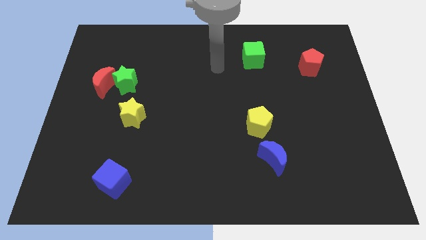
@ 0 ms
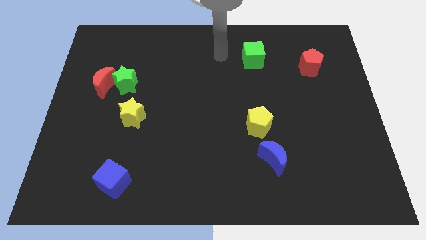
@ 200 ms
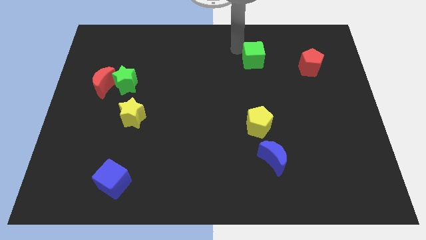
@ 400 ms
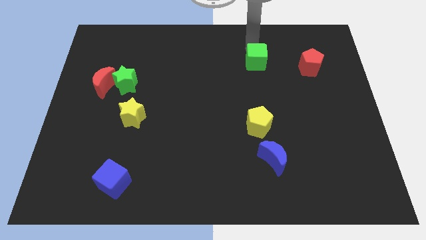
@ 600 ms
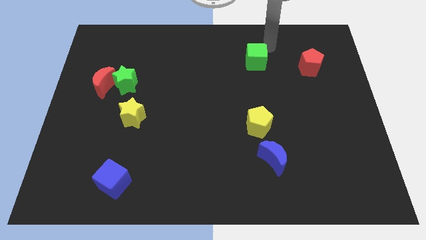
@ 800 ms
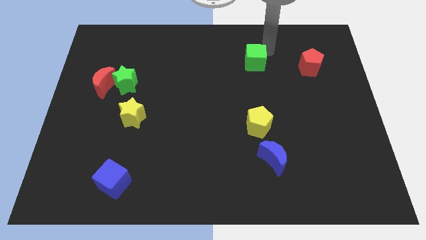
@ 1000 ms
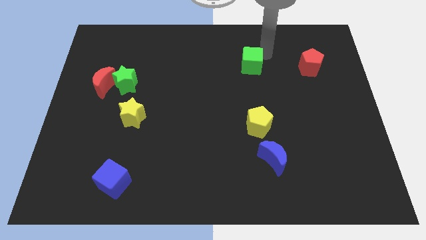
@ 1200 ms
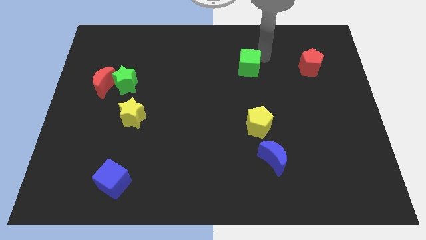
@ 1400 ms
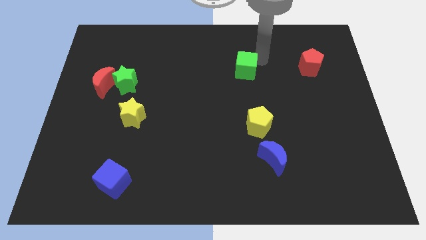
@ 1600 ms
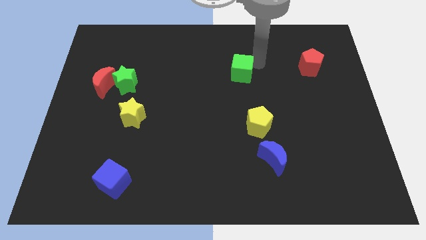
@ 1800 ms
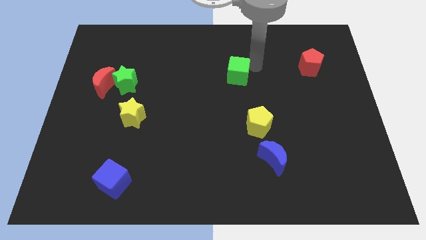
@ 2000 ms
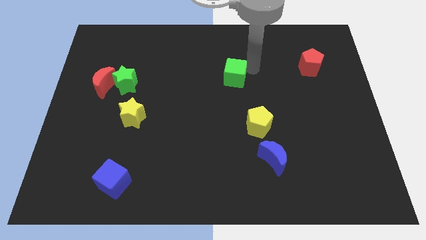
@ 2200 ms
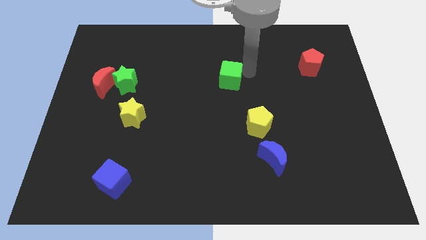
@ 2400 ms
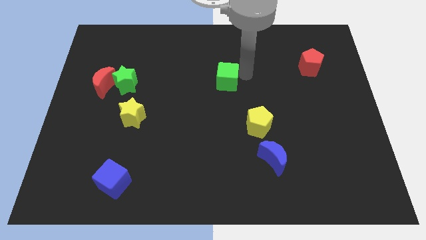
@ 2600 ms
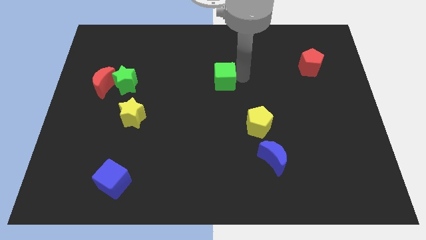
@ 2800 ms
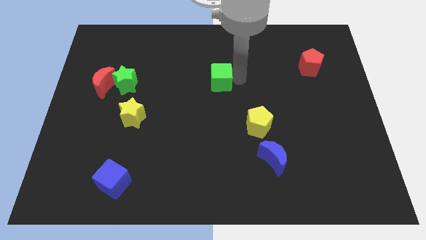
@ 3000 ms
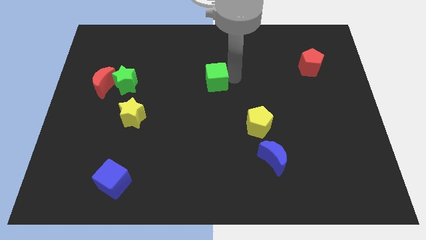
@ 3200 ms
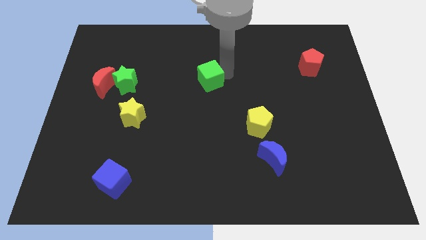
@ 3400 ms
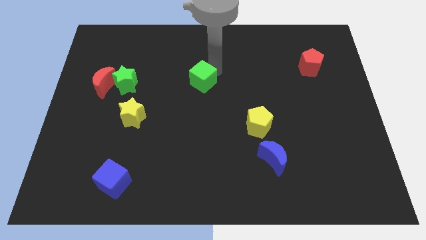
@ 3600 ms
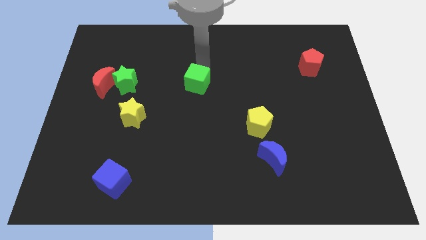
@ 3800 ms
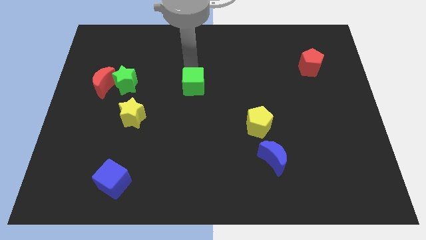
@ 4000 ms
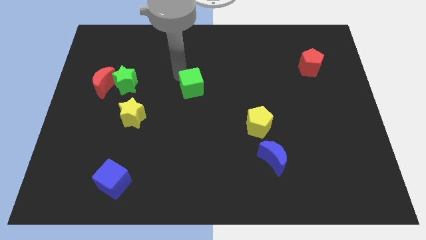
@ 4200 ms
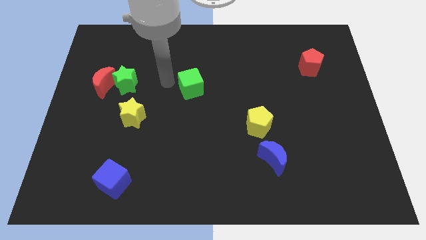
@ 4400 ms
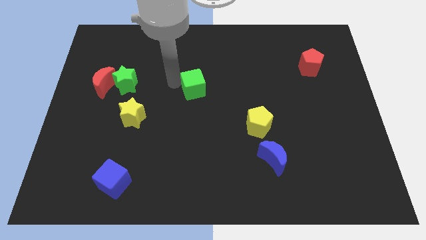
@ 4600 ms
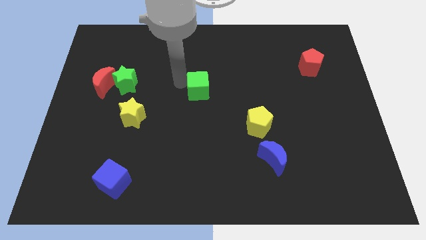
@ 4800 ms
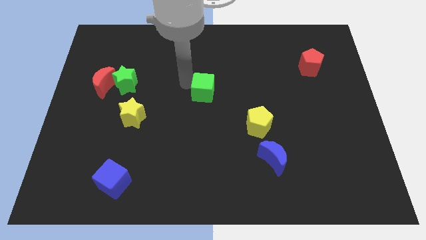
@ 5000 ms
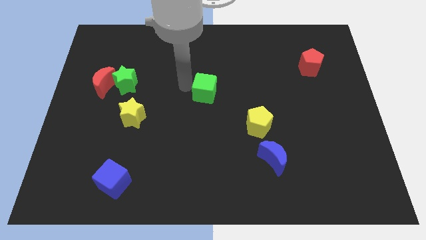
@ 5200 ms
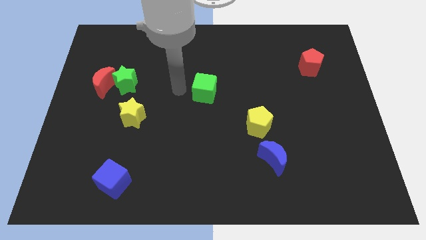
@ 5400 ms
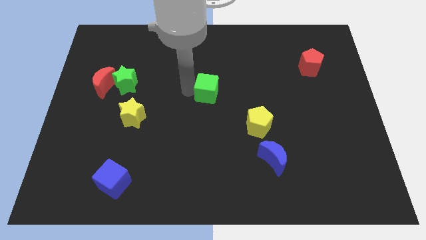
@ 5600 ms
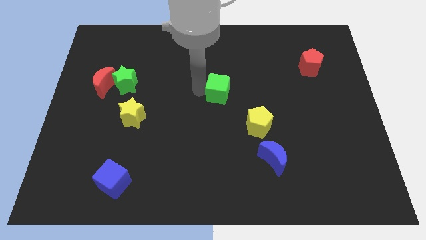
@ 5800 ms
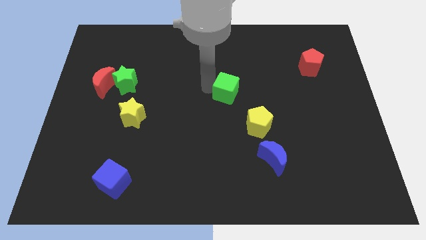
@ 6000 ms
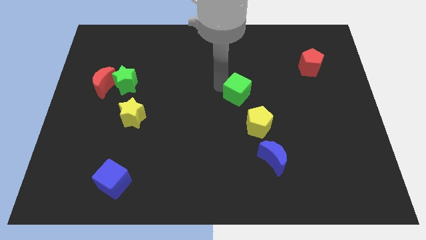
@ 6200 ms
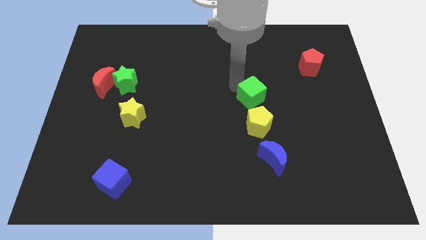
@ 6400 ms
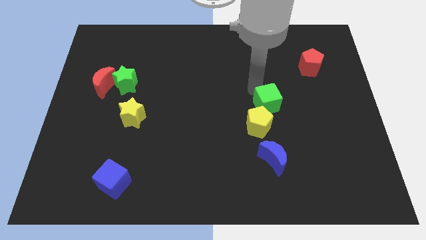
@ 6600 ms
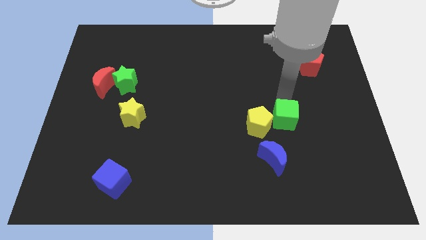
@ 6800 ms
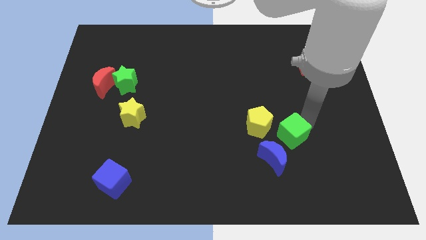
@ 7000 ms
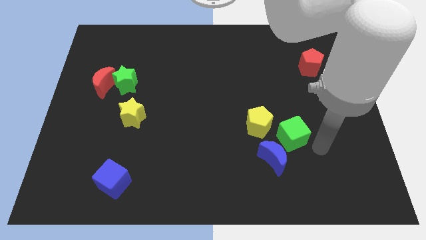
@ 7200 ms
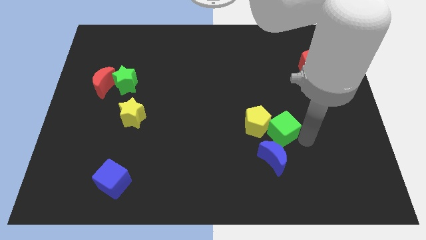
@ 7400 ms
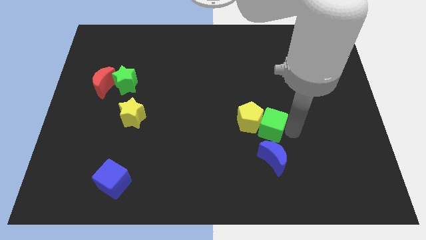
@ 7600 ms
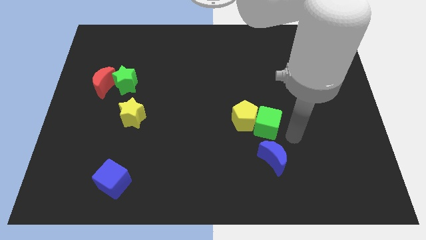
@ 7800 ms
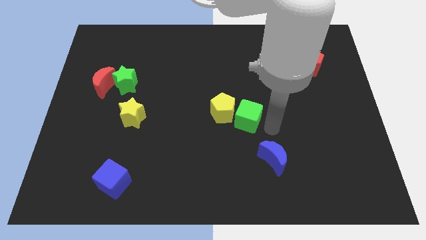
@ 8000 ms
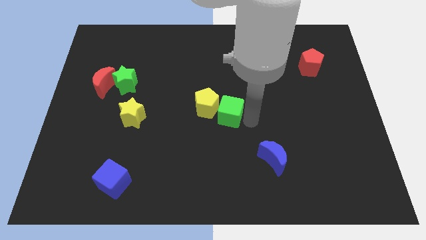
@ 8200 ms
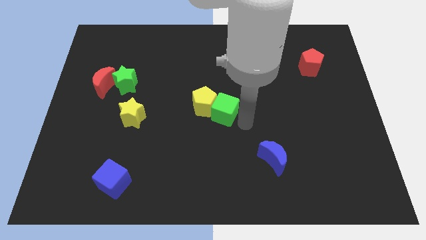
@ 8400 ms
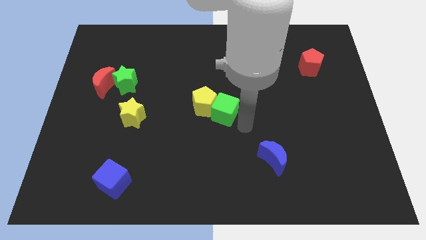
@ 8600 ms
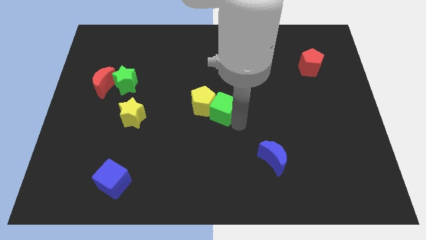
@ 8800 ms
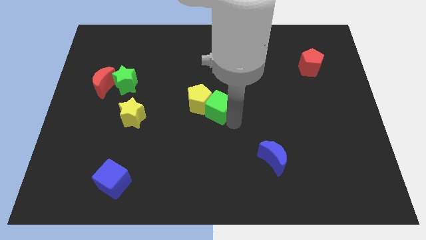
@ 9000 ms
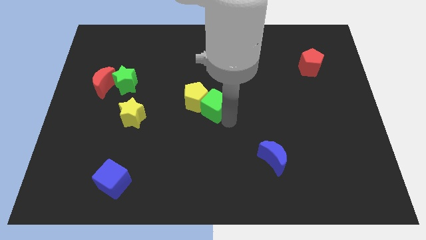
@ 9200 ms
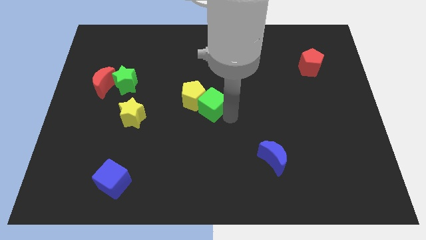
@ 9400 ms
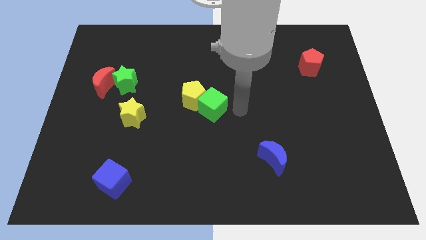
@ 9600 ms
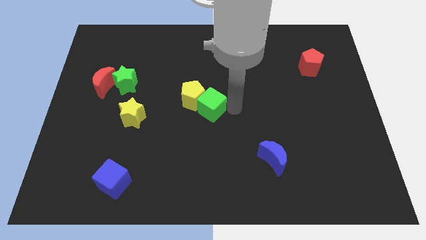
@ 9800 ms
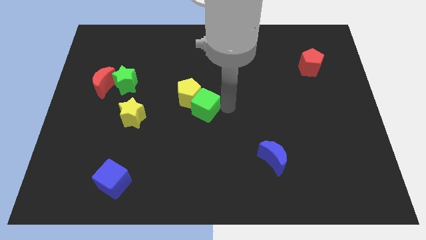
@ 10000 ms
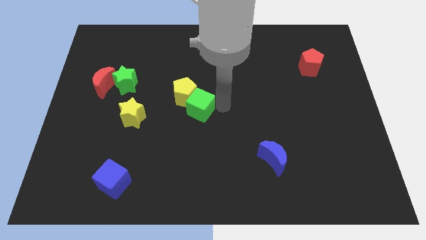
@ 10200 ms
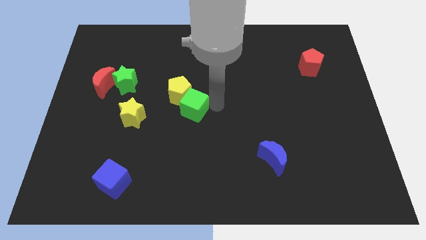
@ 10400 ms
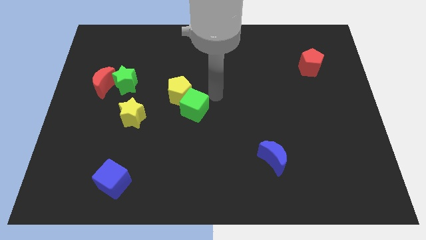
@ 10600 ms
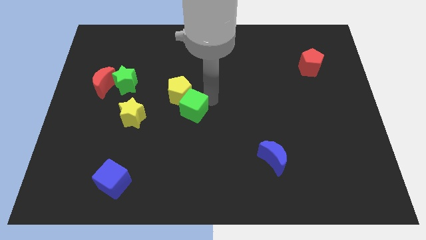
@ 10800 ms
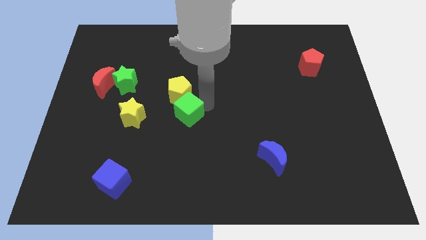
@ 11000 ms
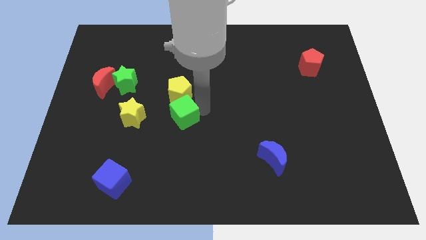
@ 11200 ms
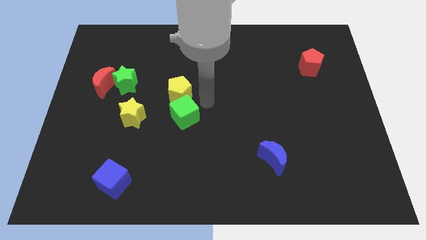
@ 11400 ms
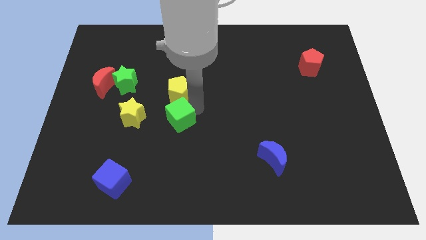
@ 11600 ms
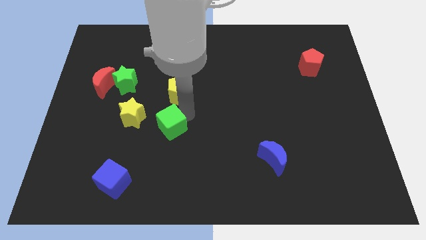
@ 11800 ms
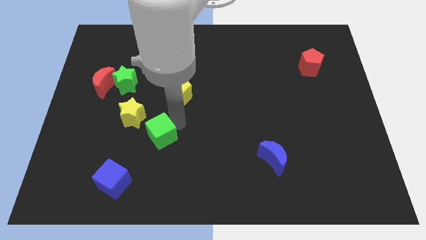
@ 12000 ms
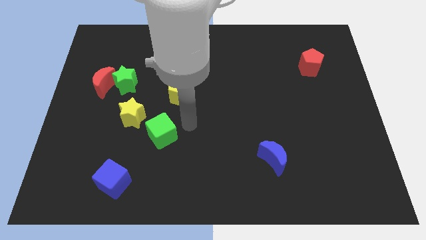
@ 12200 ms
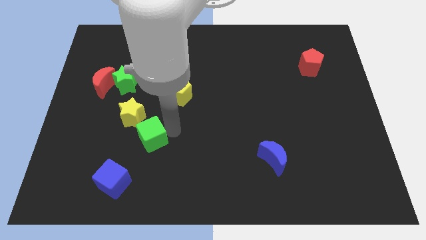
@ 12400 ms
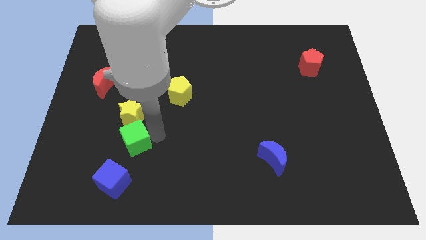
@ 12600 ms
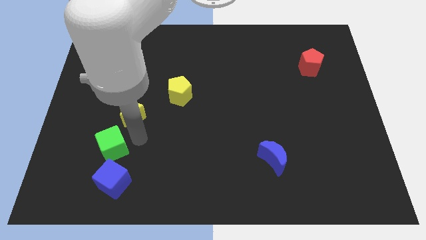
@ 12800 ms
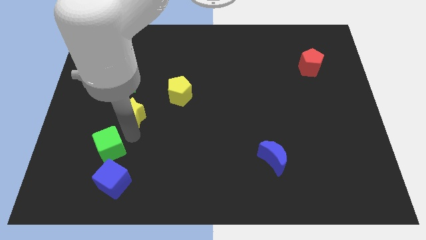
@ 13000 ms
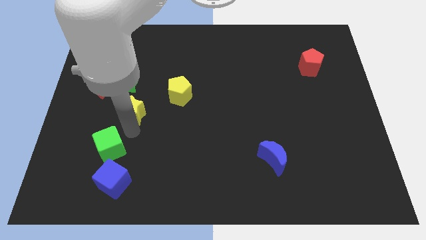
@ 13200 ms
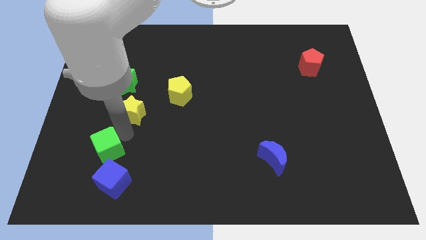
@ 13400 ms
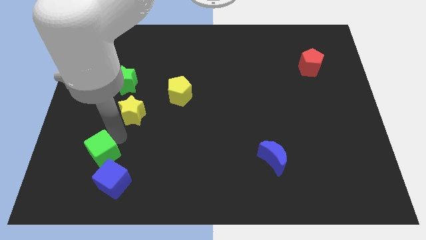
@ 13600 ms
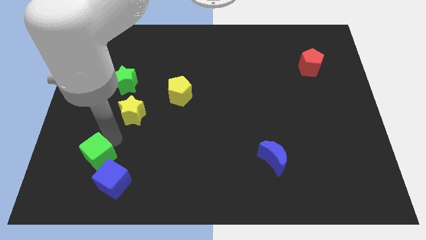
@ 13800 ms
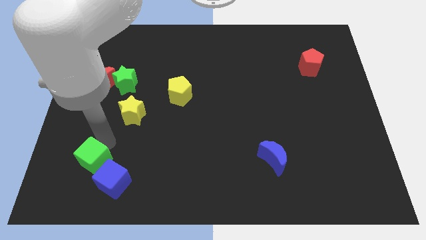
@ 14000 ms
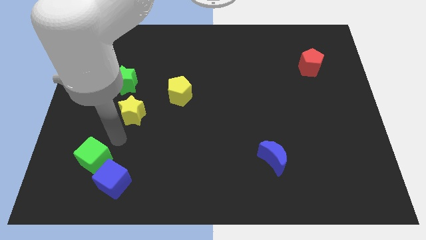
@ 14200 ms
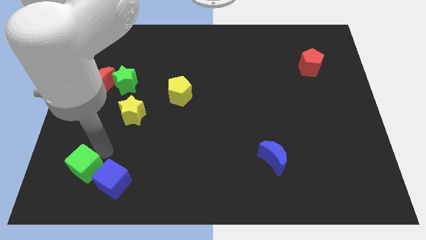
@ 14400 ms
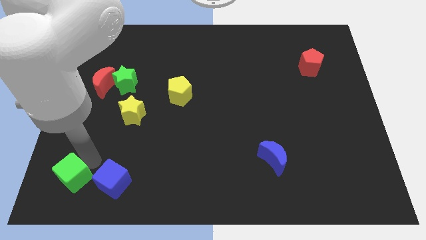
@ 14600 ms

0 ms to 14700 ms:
push the green cube to the bottom left of the board
